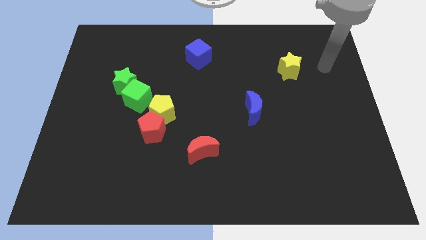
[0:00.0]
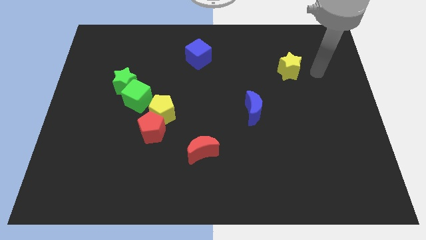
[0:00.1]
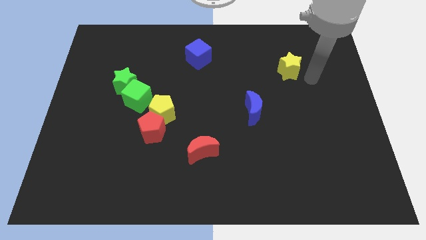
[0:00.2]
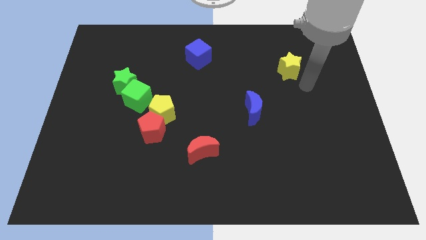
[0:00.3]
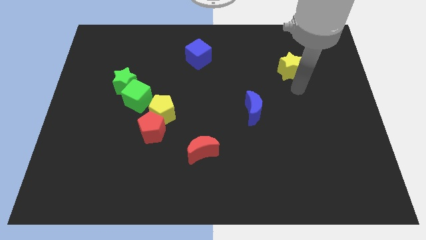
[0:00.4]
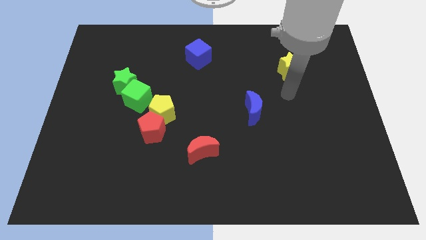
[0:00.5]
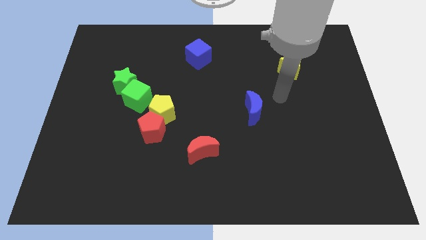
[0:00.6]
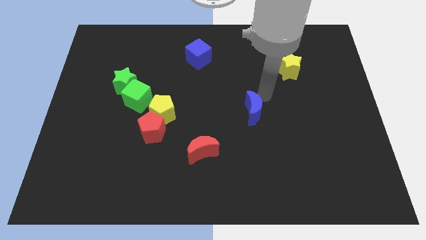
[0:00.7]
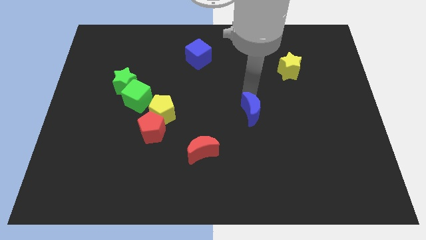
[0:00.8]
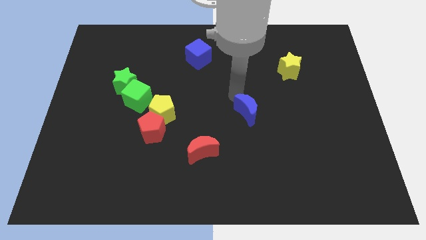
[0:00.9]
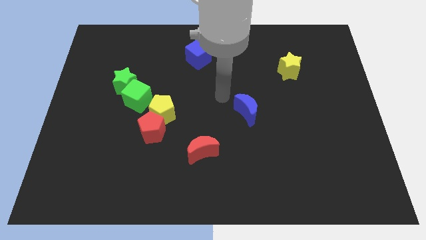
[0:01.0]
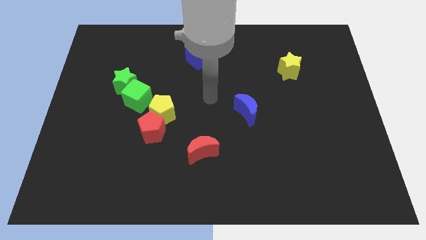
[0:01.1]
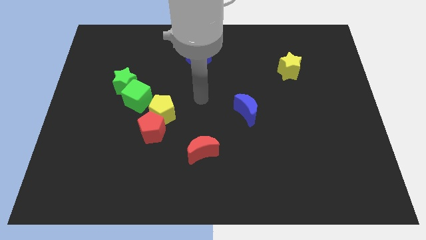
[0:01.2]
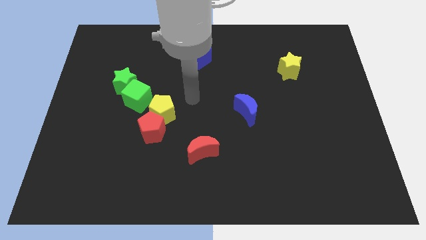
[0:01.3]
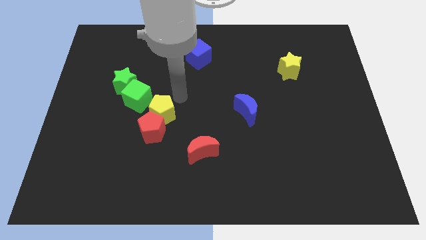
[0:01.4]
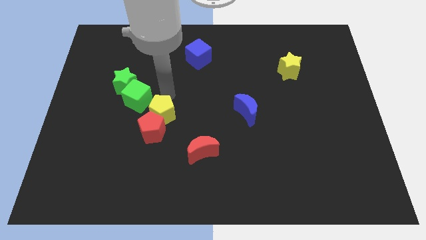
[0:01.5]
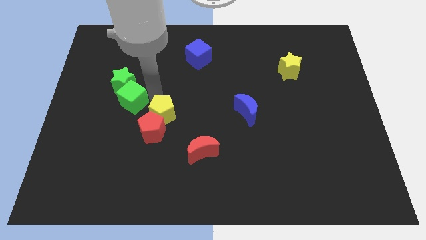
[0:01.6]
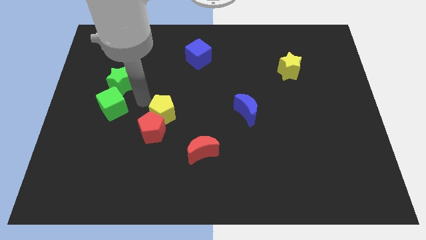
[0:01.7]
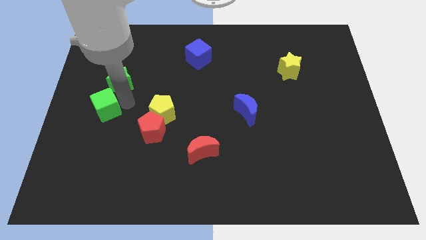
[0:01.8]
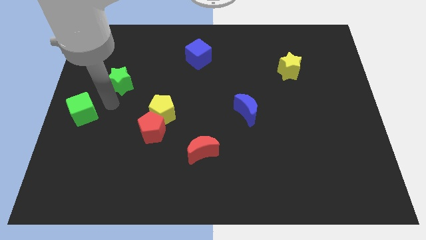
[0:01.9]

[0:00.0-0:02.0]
separate the green star from the green cube

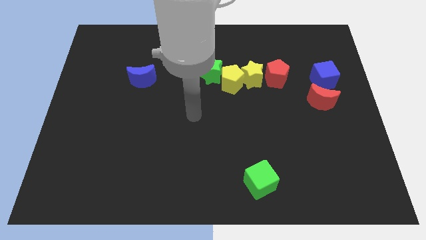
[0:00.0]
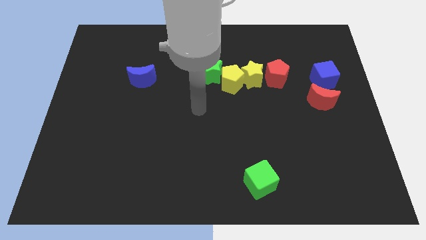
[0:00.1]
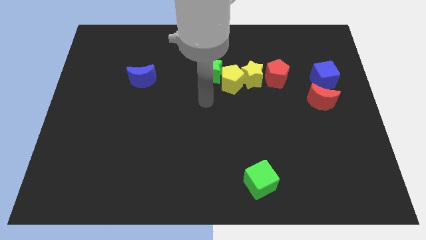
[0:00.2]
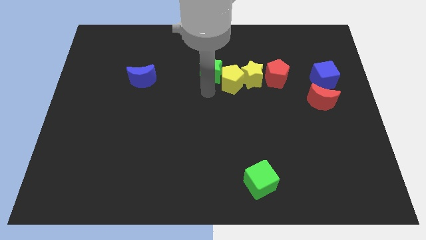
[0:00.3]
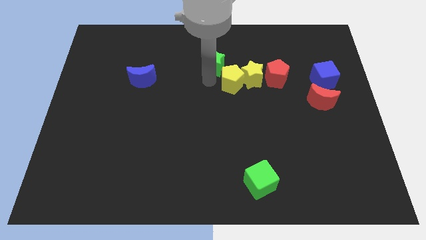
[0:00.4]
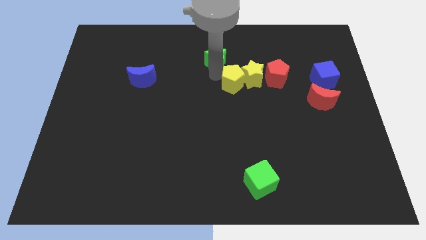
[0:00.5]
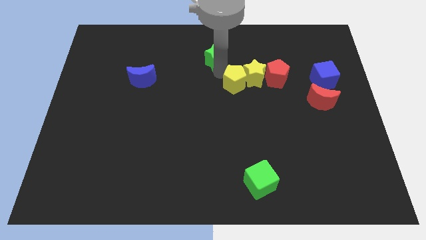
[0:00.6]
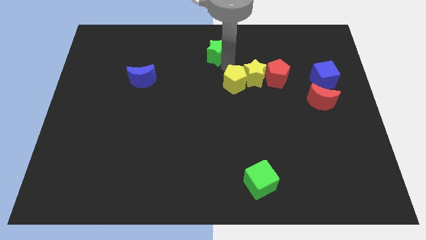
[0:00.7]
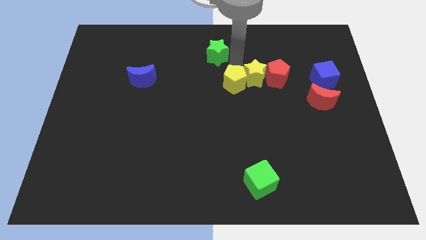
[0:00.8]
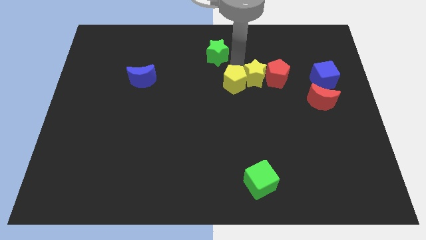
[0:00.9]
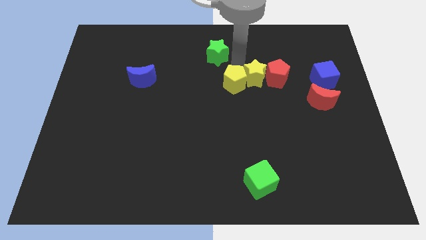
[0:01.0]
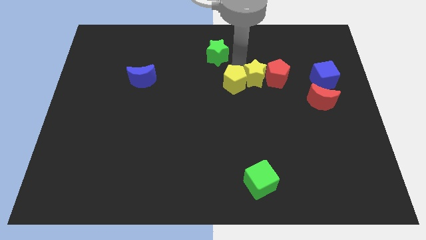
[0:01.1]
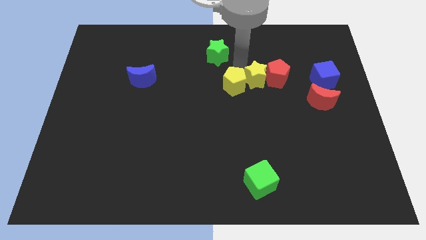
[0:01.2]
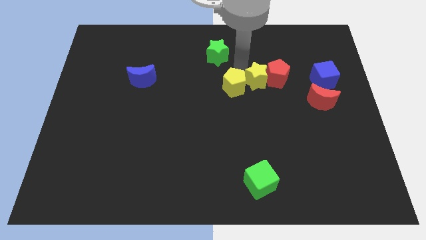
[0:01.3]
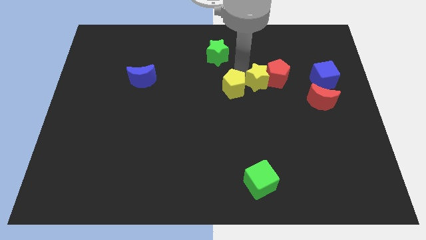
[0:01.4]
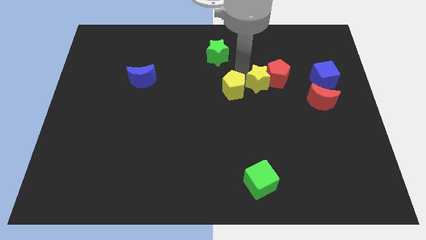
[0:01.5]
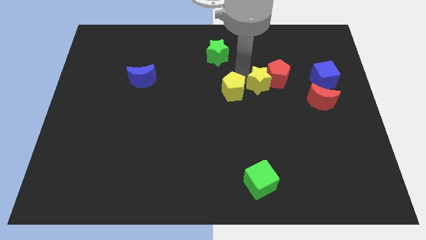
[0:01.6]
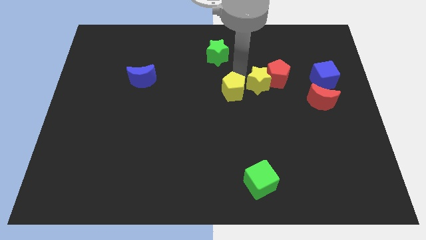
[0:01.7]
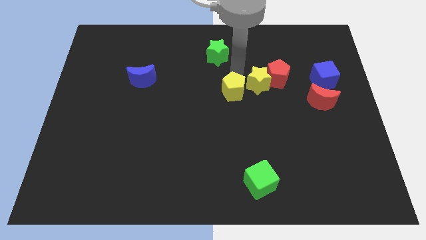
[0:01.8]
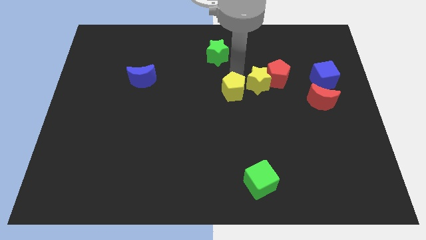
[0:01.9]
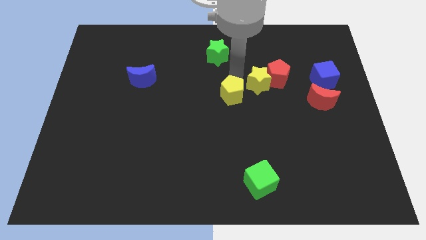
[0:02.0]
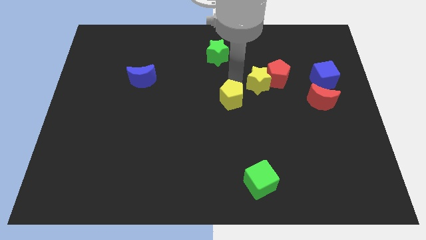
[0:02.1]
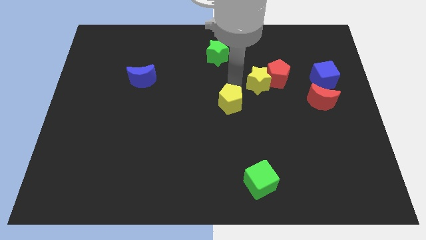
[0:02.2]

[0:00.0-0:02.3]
separate the yellow pentagon from the yellow star and green star

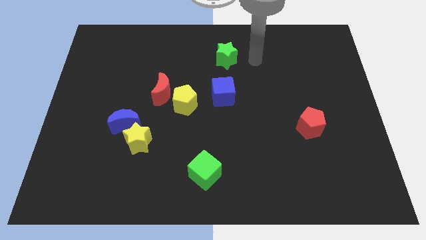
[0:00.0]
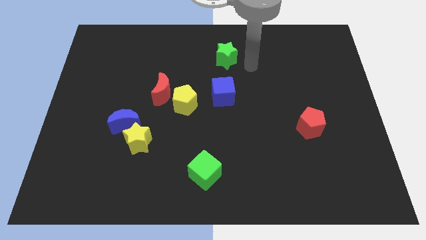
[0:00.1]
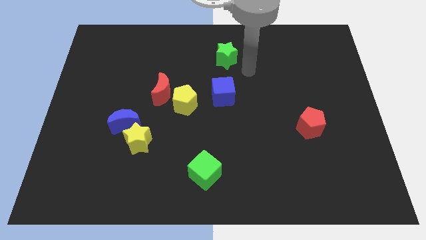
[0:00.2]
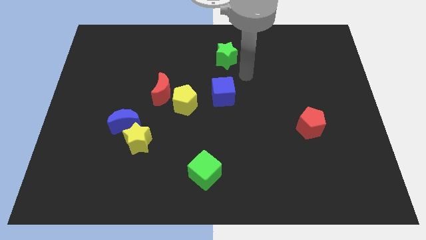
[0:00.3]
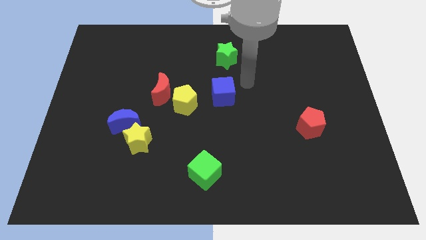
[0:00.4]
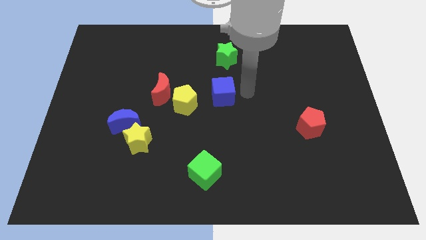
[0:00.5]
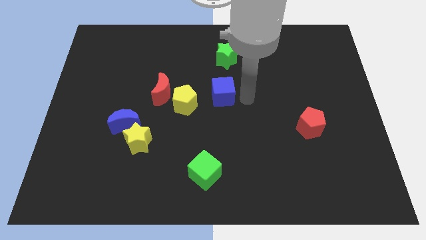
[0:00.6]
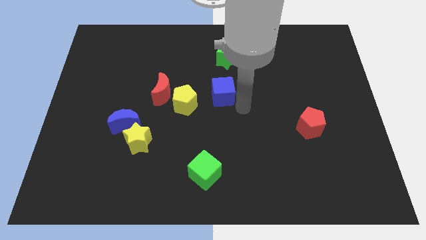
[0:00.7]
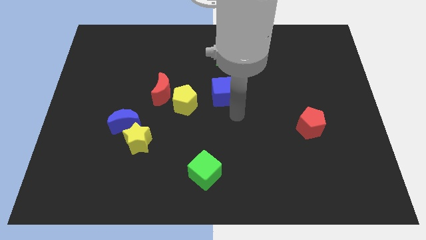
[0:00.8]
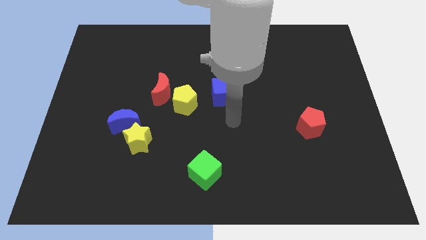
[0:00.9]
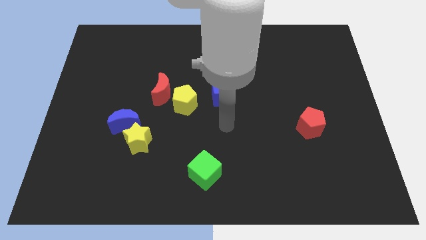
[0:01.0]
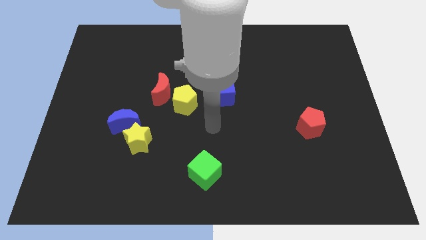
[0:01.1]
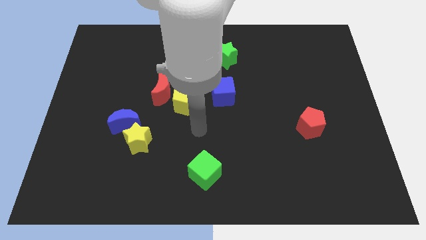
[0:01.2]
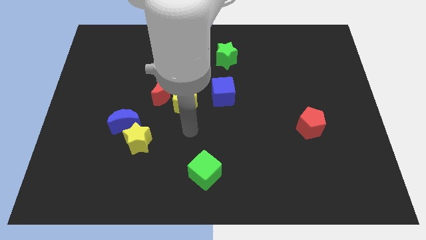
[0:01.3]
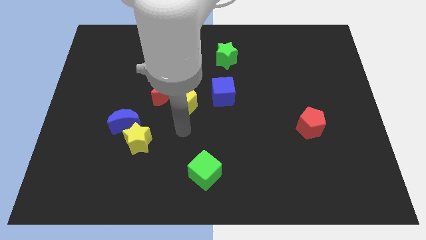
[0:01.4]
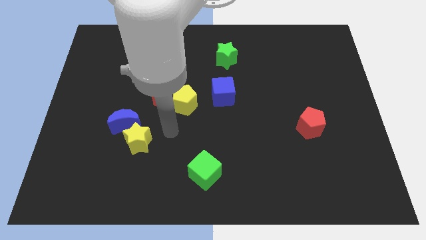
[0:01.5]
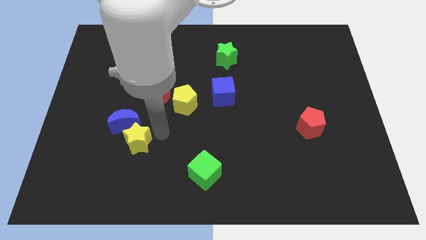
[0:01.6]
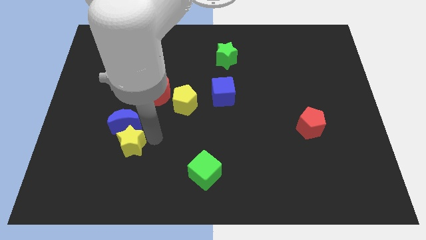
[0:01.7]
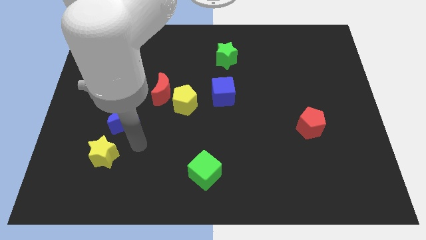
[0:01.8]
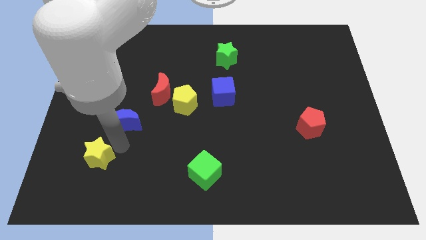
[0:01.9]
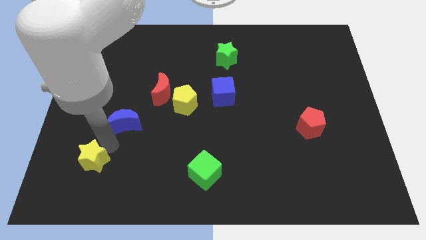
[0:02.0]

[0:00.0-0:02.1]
move the blue moon away from the yellow star

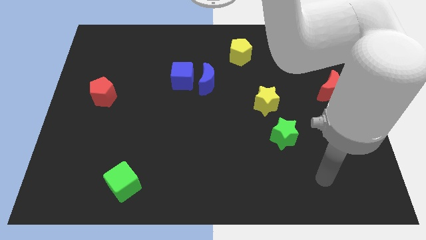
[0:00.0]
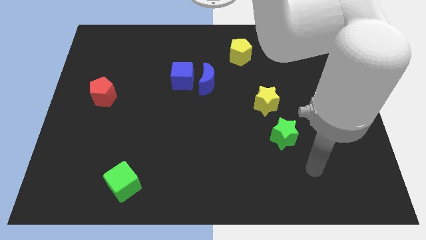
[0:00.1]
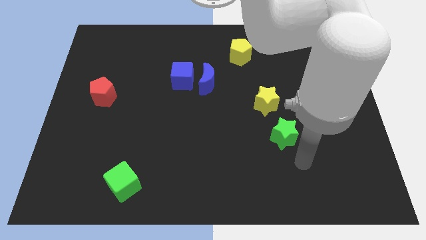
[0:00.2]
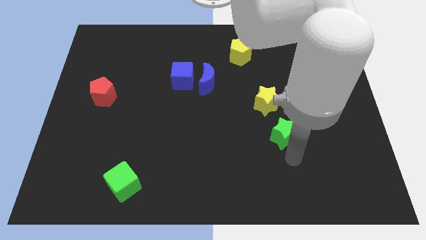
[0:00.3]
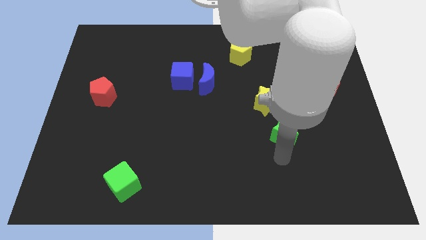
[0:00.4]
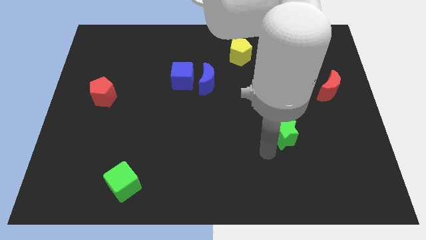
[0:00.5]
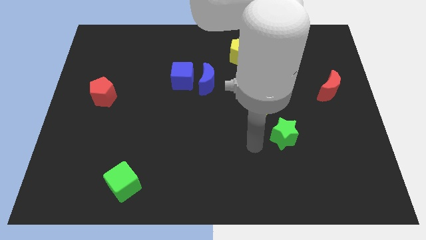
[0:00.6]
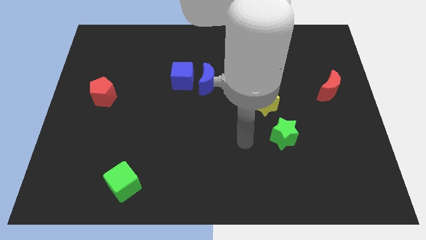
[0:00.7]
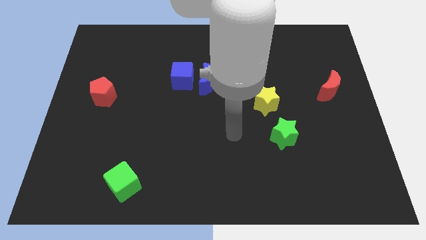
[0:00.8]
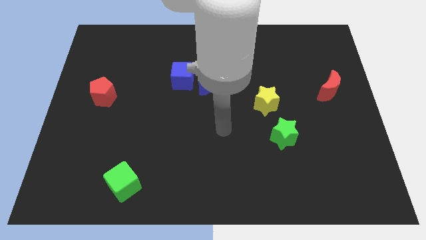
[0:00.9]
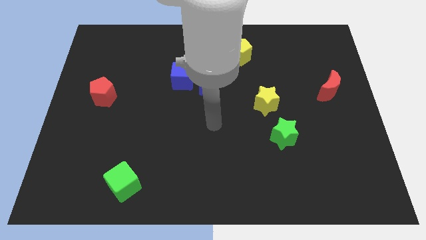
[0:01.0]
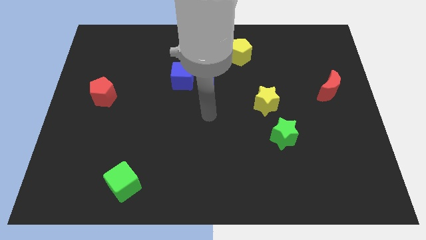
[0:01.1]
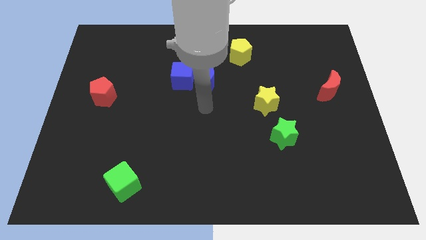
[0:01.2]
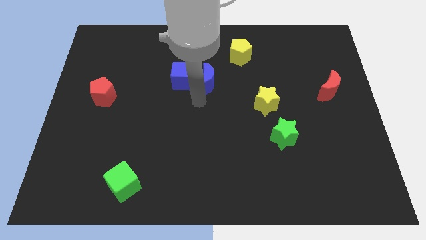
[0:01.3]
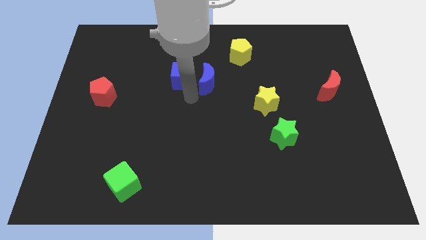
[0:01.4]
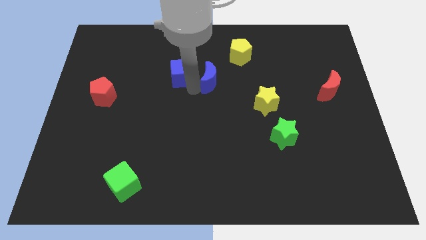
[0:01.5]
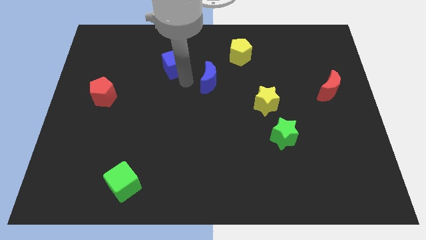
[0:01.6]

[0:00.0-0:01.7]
pull the blue moon apart from the blue cube

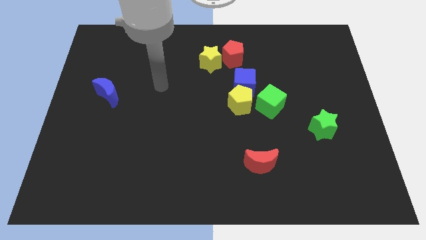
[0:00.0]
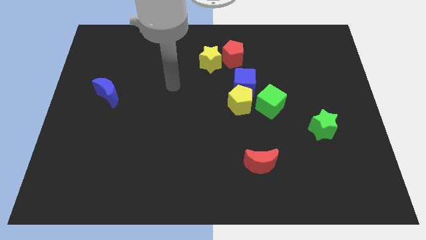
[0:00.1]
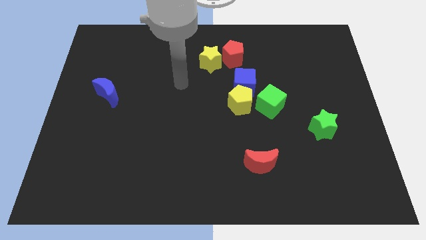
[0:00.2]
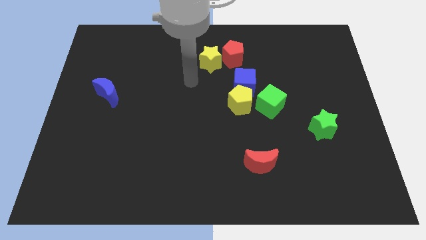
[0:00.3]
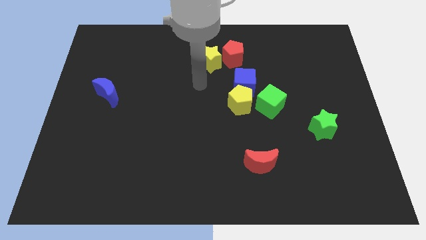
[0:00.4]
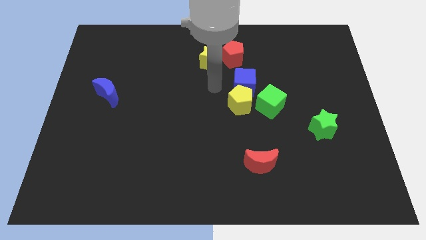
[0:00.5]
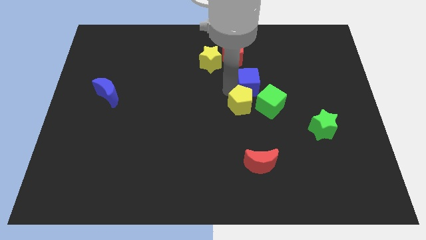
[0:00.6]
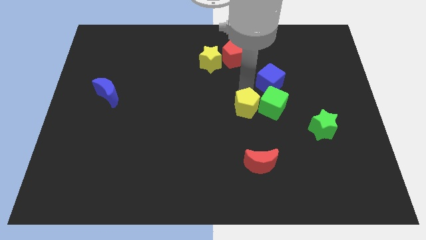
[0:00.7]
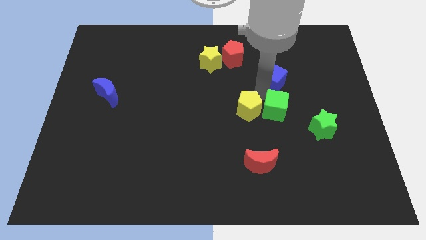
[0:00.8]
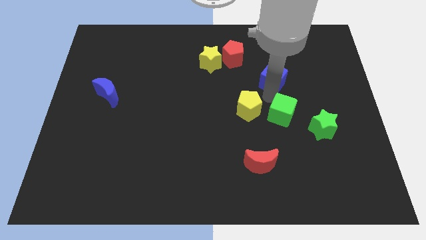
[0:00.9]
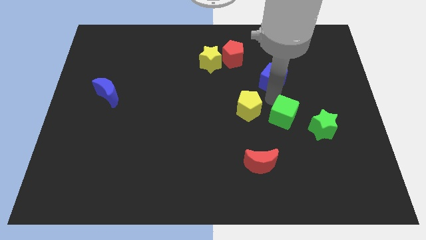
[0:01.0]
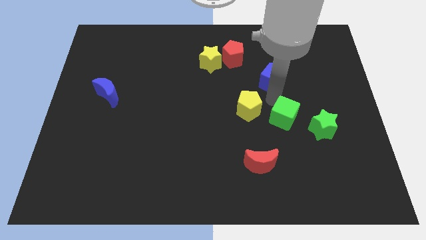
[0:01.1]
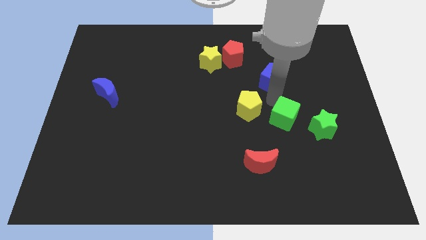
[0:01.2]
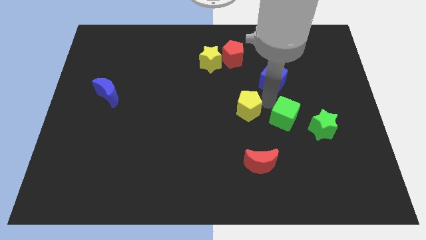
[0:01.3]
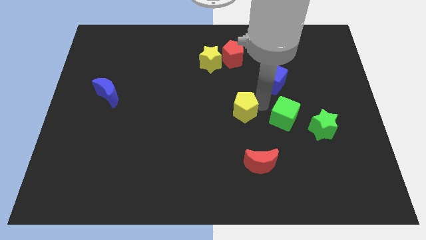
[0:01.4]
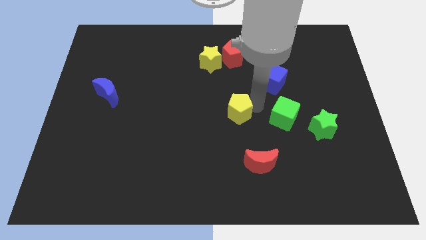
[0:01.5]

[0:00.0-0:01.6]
move the yellow pentagon away from the blue cube and green cube
